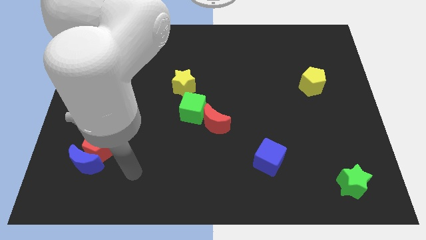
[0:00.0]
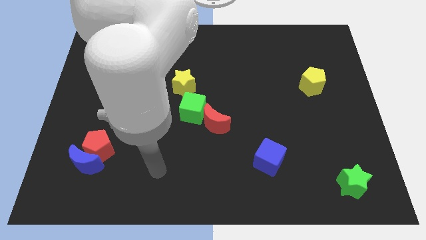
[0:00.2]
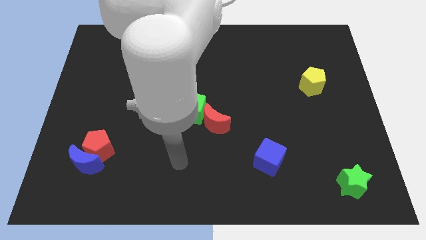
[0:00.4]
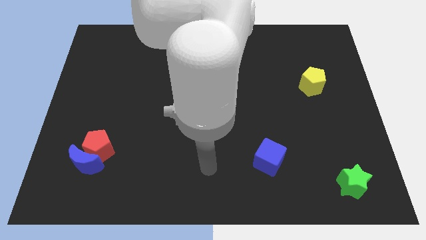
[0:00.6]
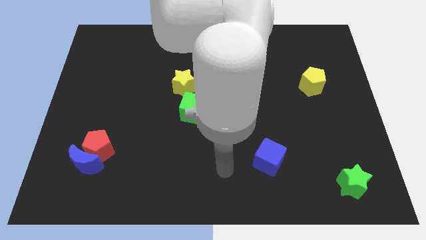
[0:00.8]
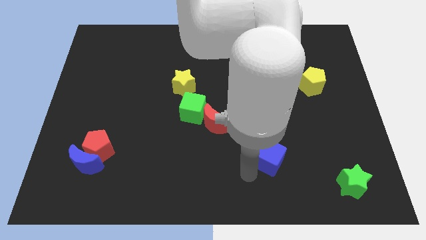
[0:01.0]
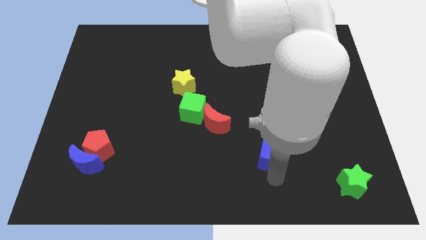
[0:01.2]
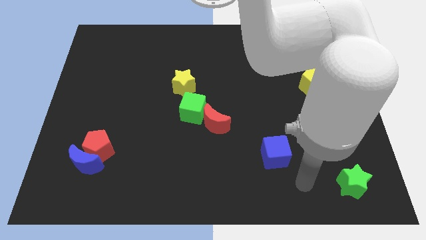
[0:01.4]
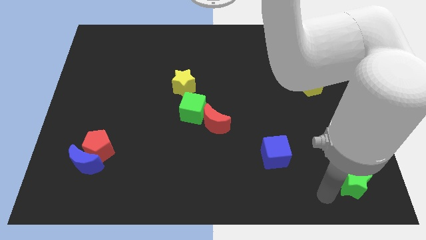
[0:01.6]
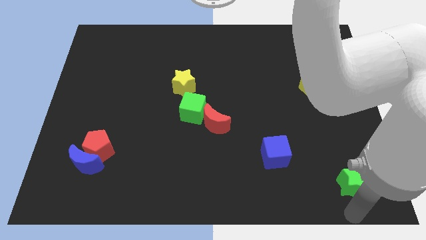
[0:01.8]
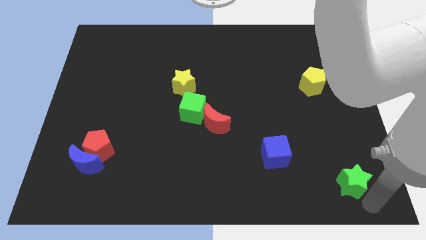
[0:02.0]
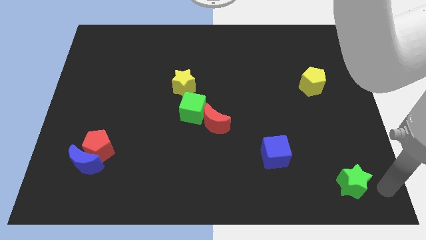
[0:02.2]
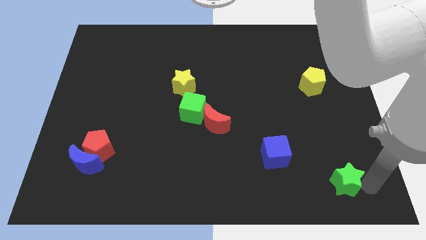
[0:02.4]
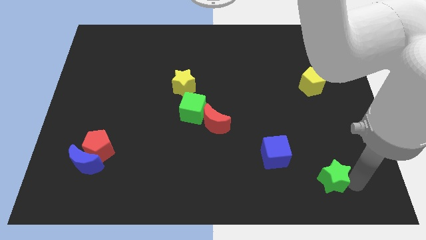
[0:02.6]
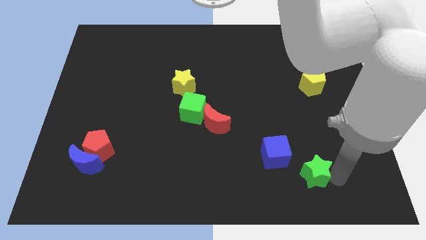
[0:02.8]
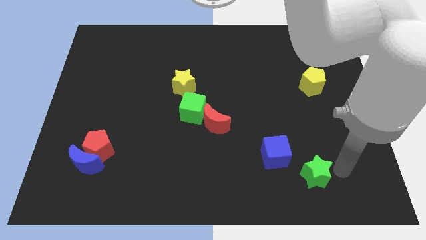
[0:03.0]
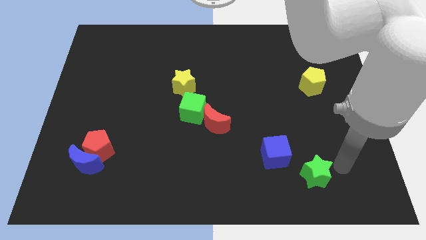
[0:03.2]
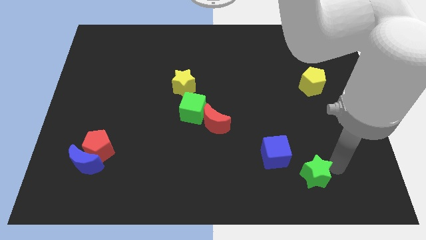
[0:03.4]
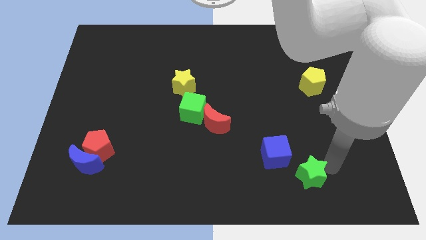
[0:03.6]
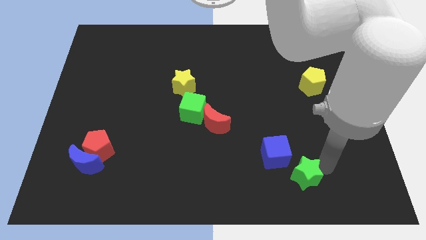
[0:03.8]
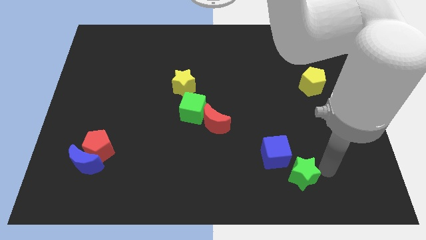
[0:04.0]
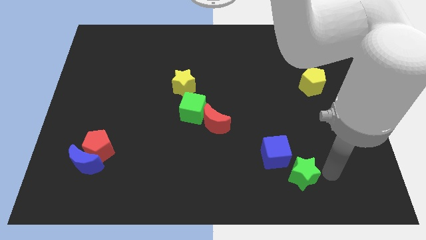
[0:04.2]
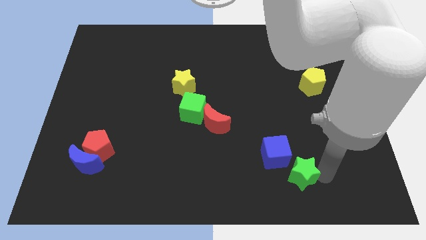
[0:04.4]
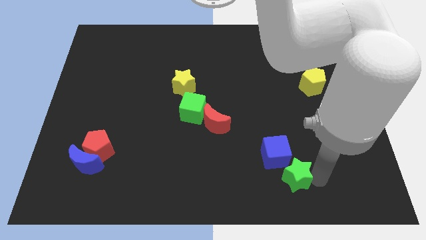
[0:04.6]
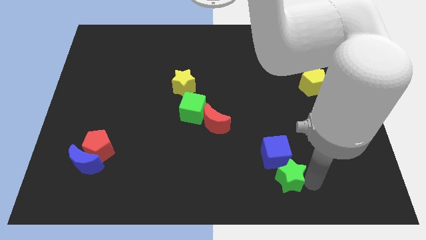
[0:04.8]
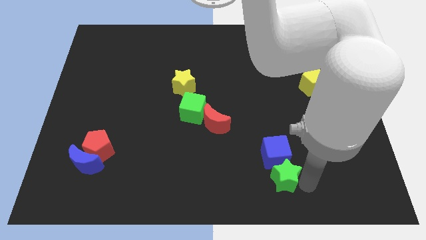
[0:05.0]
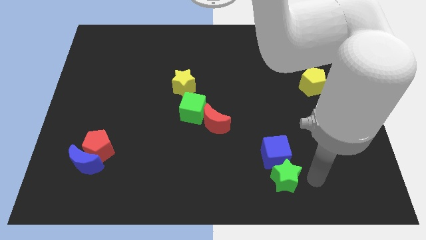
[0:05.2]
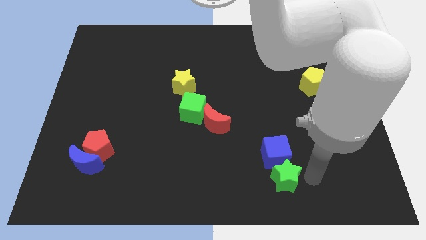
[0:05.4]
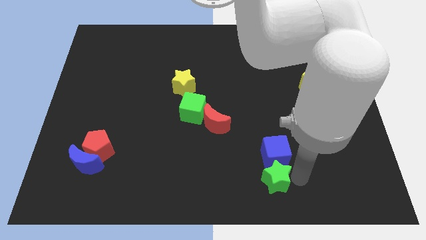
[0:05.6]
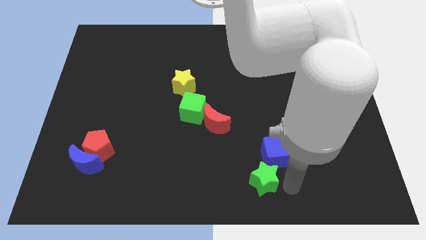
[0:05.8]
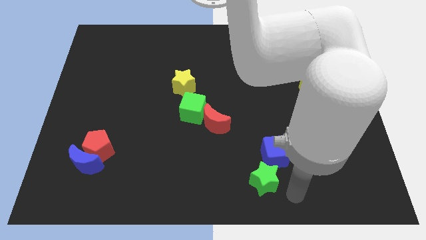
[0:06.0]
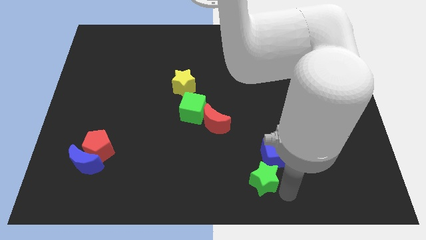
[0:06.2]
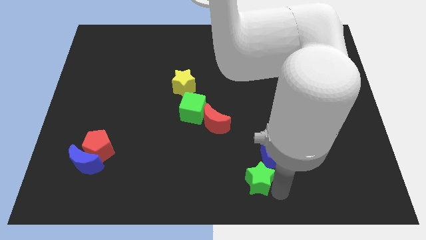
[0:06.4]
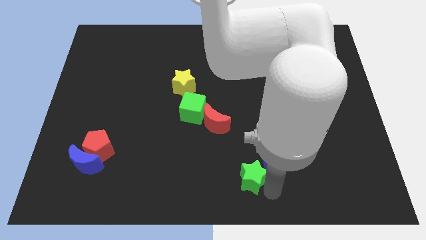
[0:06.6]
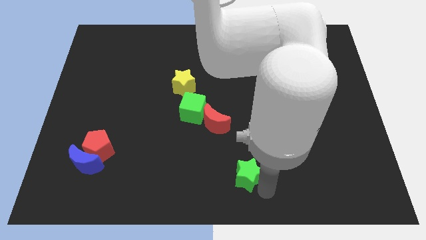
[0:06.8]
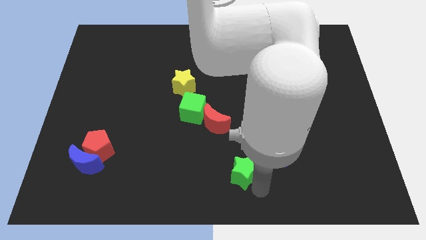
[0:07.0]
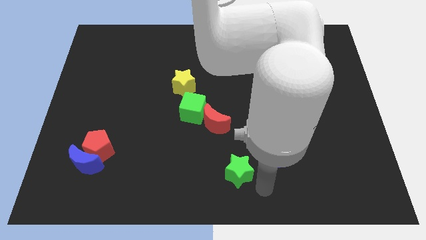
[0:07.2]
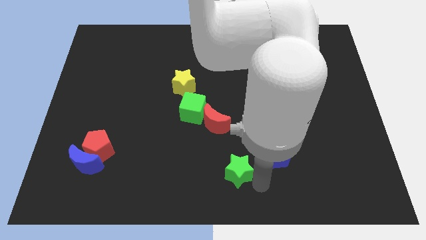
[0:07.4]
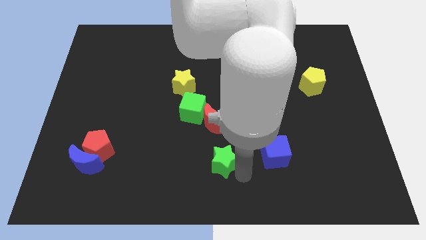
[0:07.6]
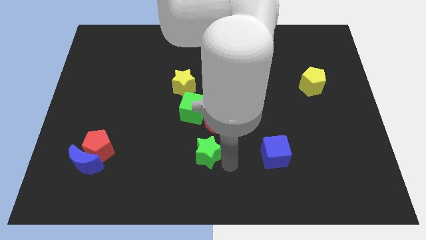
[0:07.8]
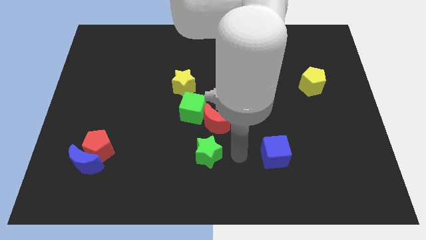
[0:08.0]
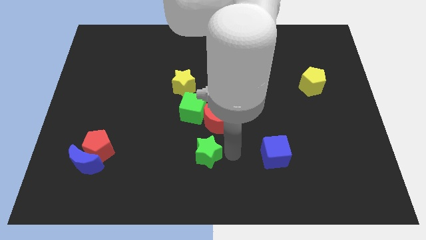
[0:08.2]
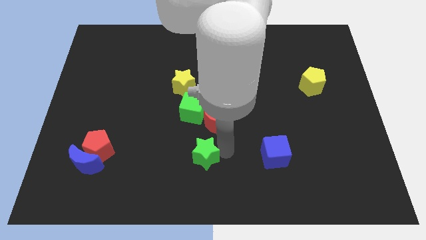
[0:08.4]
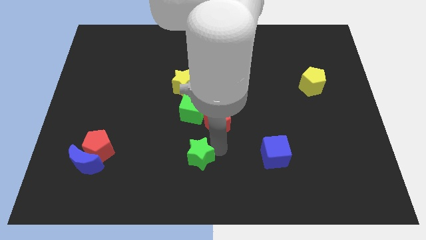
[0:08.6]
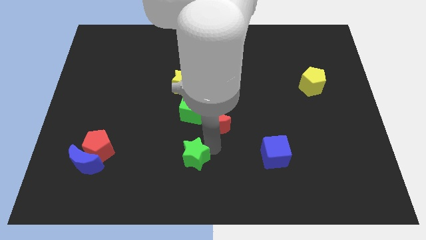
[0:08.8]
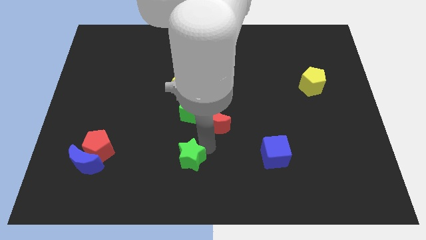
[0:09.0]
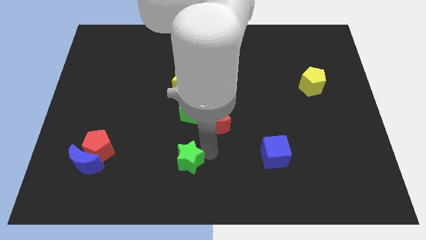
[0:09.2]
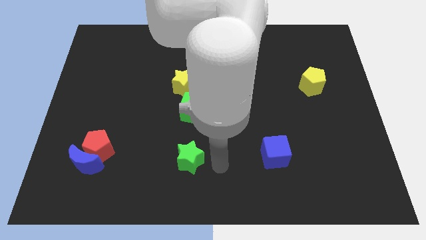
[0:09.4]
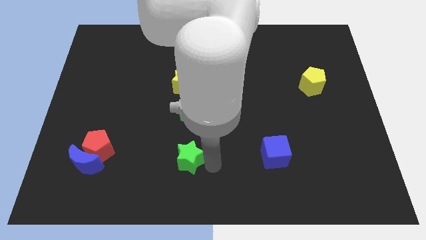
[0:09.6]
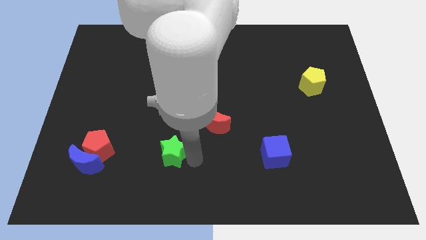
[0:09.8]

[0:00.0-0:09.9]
push the green star to the right side of the red pentagon

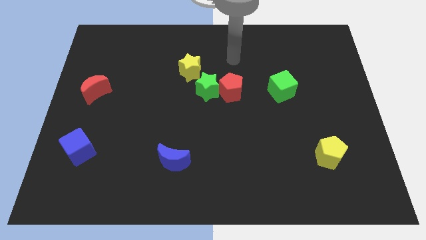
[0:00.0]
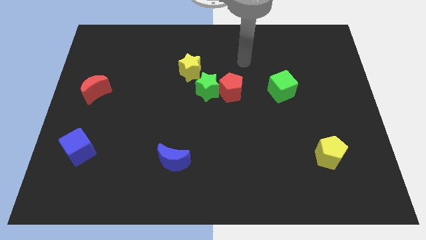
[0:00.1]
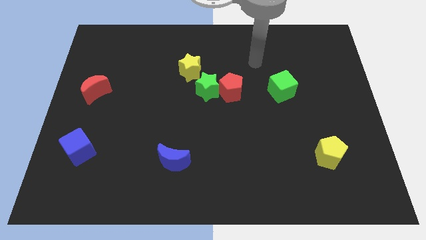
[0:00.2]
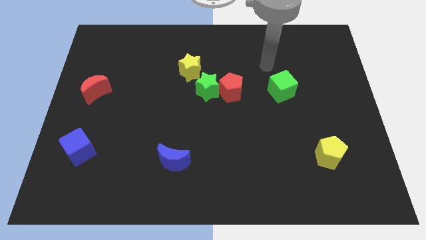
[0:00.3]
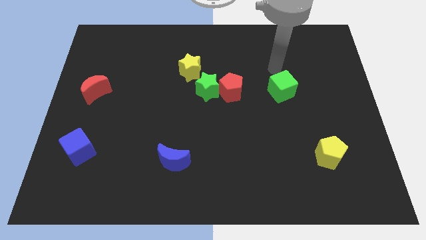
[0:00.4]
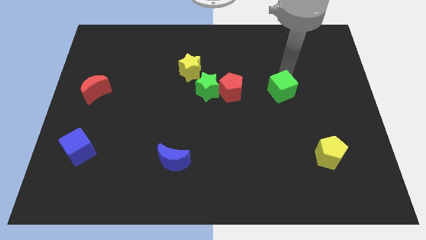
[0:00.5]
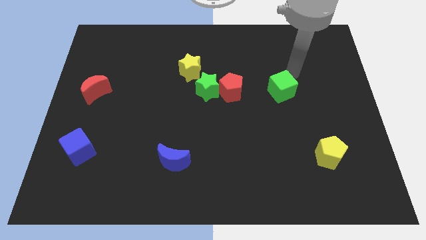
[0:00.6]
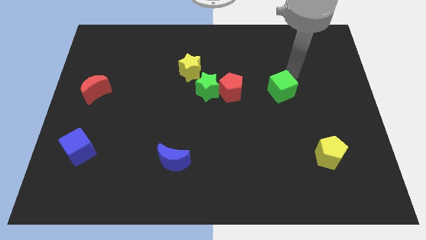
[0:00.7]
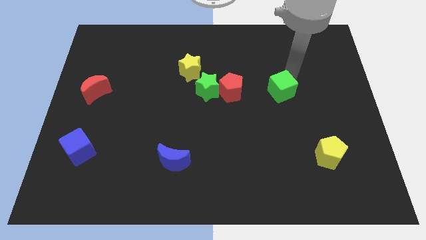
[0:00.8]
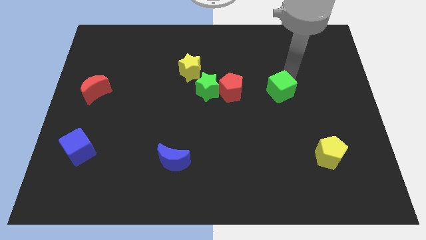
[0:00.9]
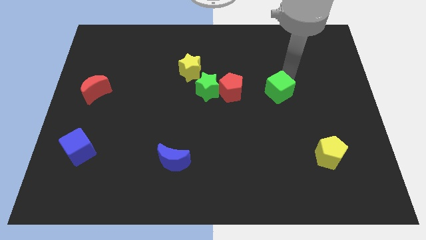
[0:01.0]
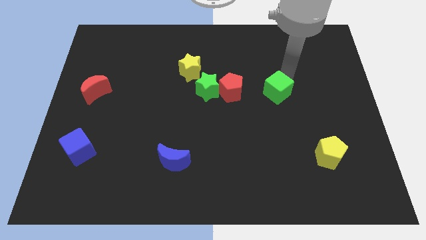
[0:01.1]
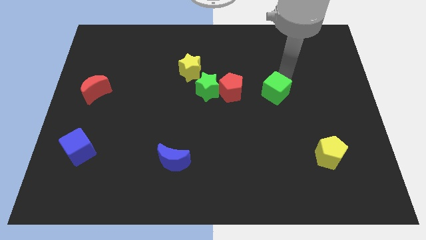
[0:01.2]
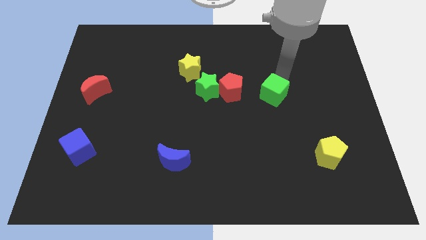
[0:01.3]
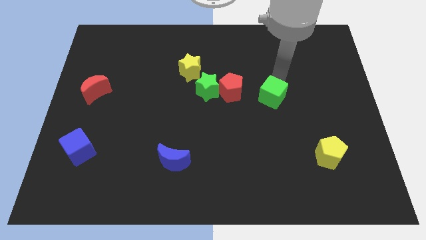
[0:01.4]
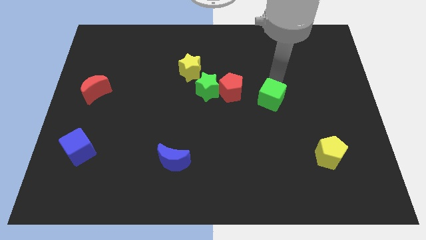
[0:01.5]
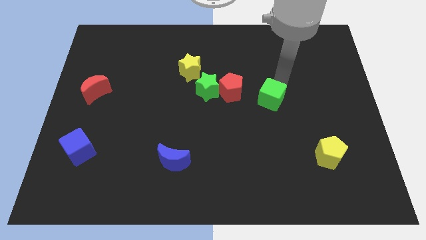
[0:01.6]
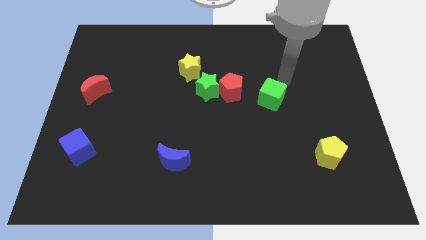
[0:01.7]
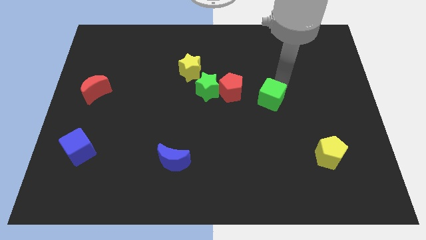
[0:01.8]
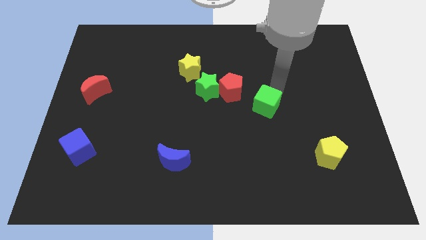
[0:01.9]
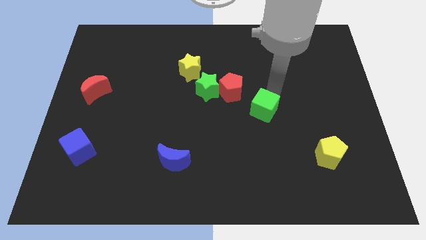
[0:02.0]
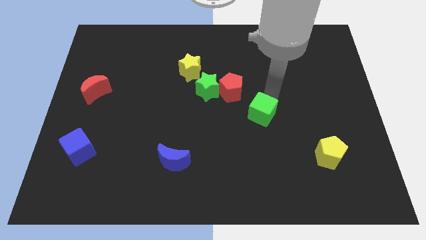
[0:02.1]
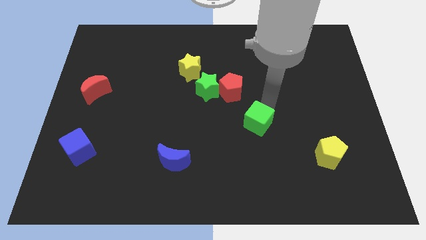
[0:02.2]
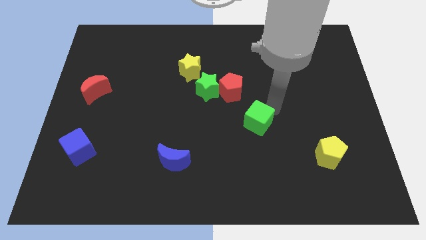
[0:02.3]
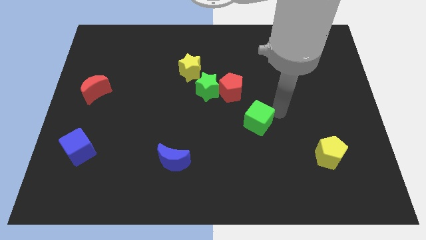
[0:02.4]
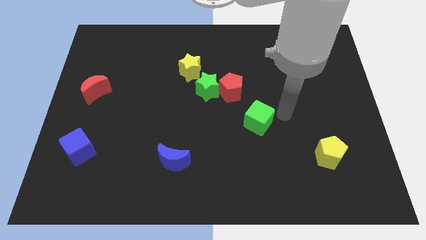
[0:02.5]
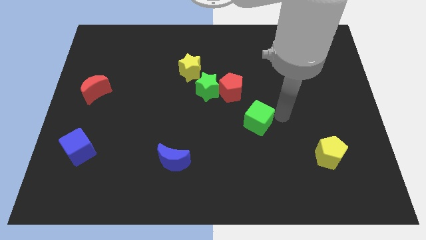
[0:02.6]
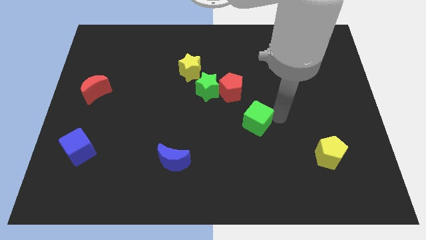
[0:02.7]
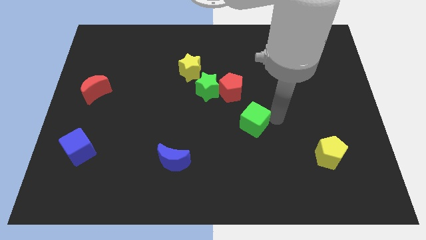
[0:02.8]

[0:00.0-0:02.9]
put the green cube to the bottom side of the red pentagon
